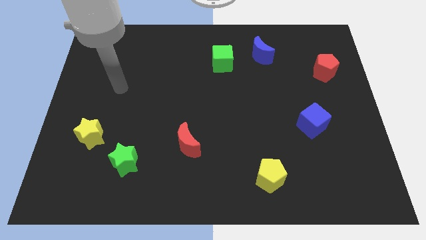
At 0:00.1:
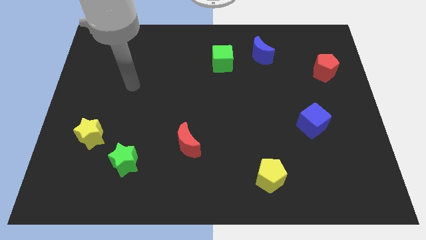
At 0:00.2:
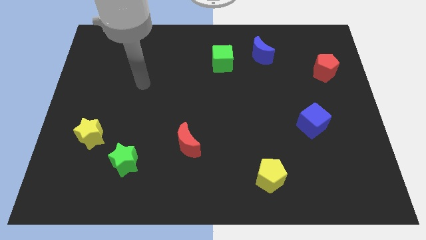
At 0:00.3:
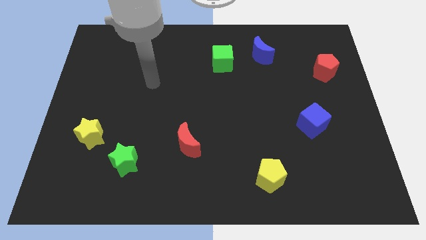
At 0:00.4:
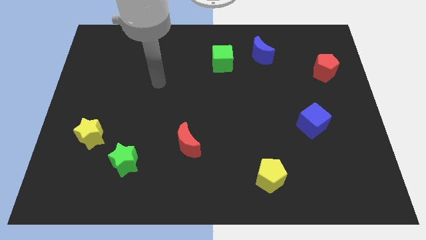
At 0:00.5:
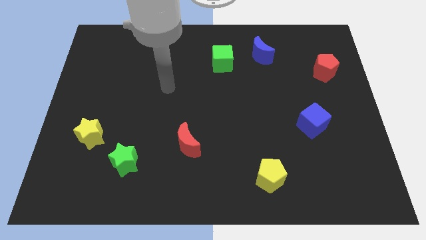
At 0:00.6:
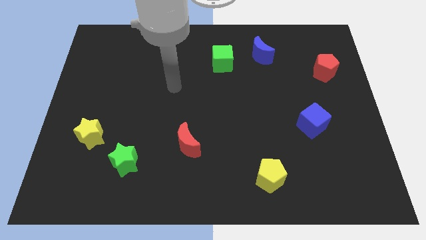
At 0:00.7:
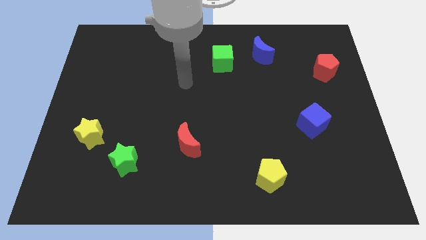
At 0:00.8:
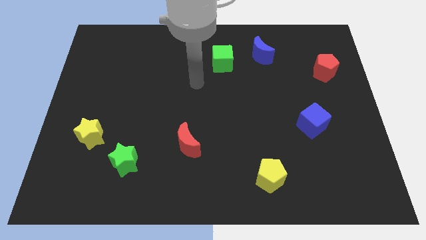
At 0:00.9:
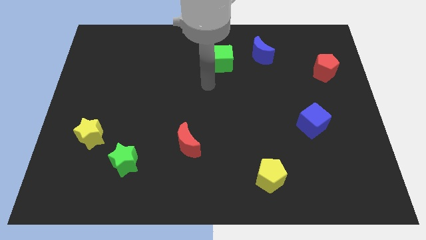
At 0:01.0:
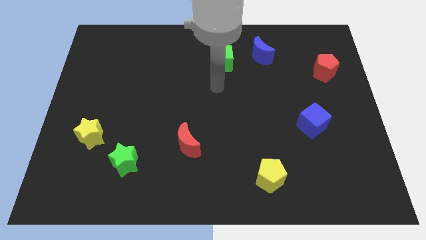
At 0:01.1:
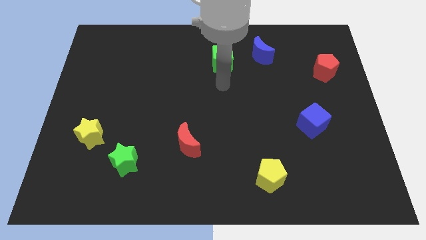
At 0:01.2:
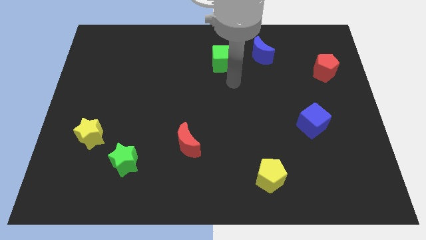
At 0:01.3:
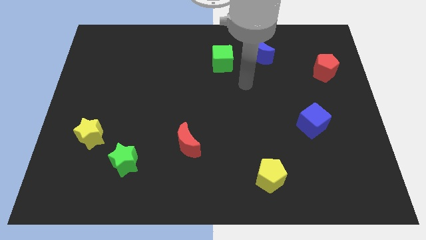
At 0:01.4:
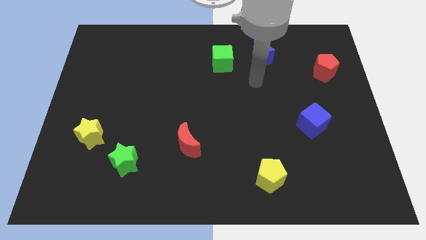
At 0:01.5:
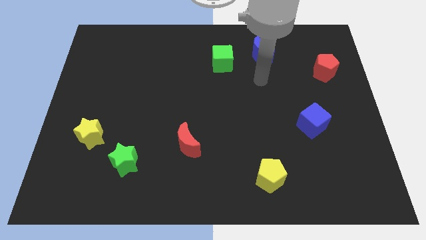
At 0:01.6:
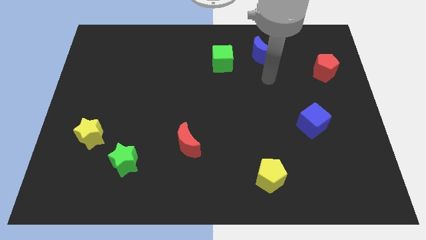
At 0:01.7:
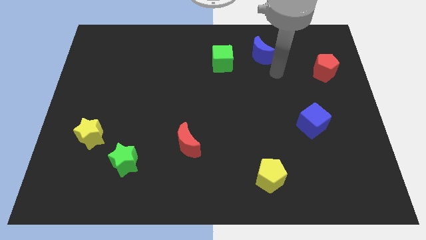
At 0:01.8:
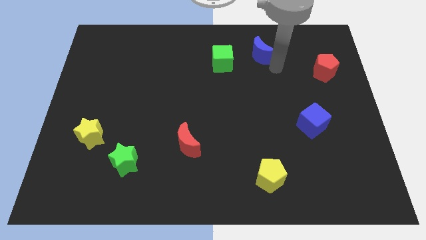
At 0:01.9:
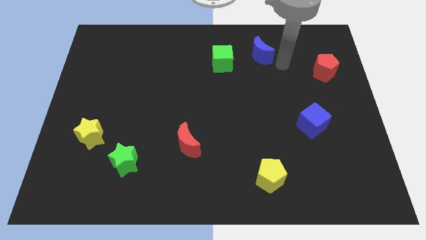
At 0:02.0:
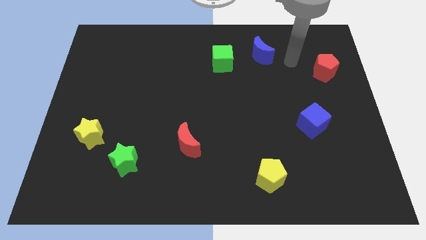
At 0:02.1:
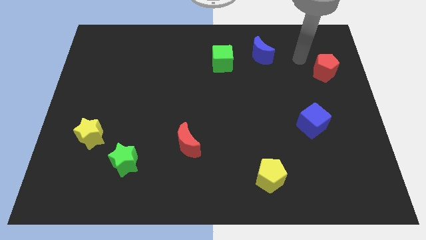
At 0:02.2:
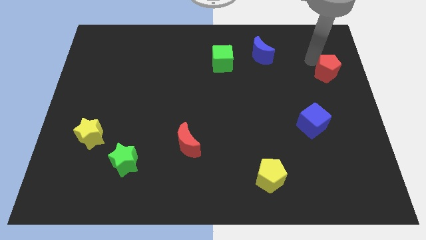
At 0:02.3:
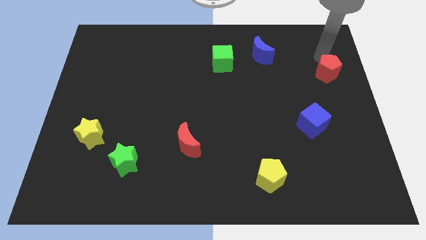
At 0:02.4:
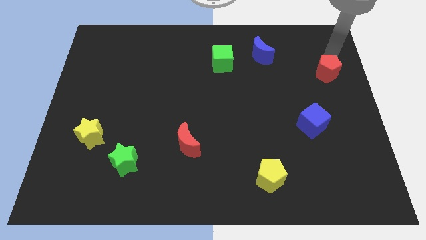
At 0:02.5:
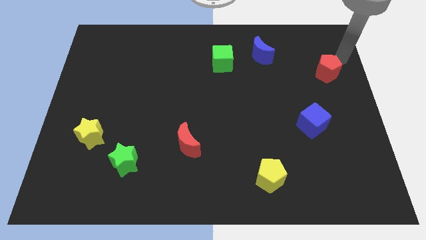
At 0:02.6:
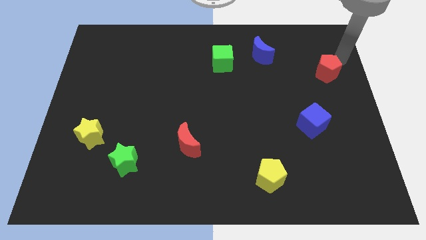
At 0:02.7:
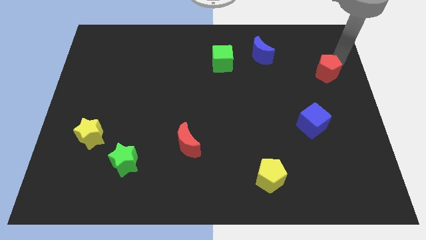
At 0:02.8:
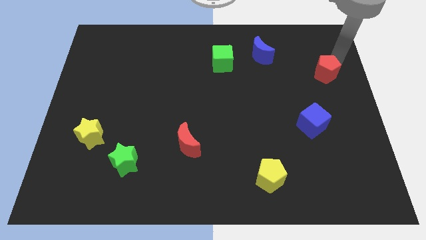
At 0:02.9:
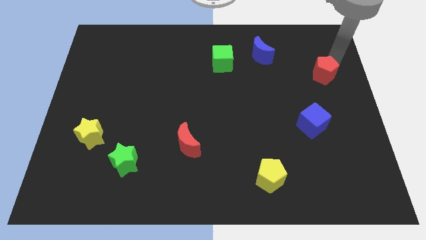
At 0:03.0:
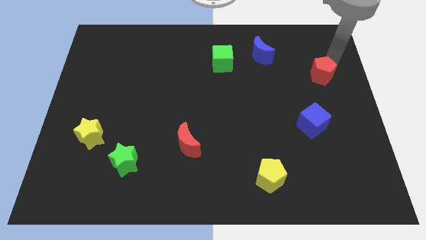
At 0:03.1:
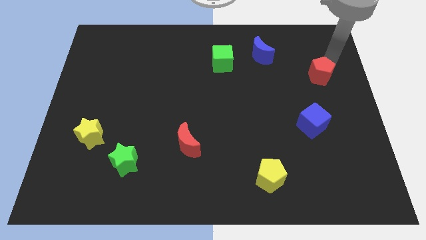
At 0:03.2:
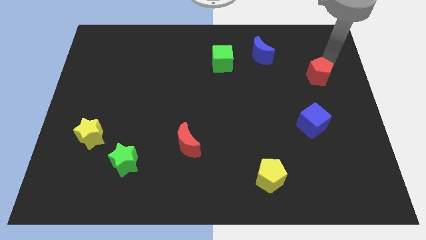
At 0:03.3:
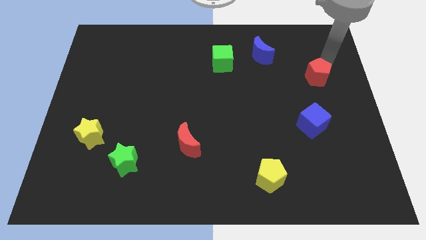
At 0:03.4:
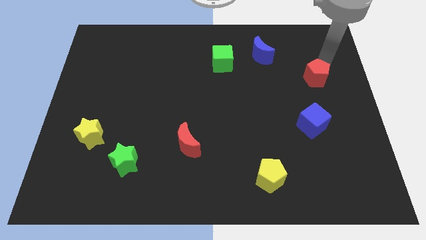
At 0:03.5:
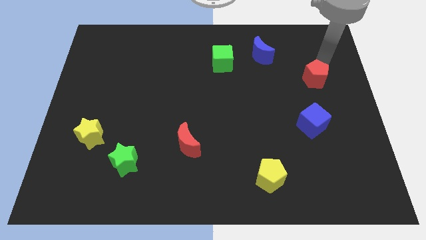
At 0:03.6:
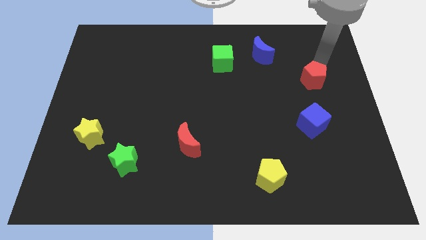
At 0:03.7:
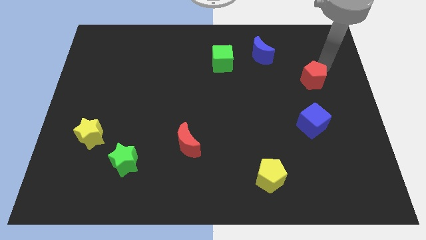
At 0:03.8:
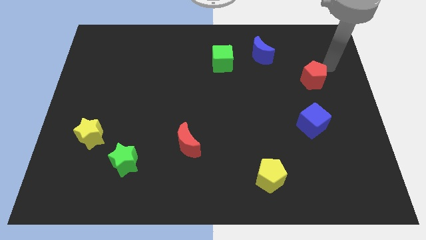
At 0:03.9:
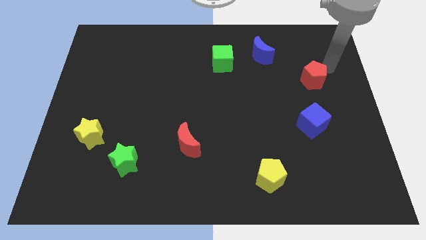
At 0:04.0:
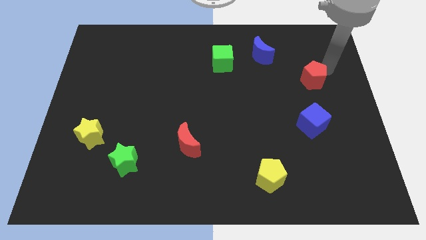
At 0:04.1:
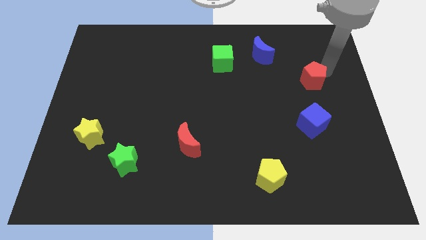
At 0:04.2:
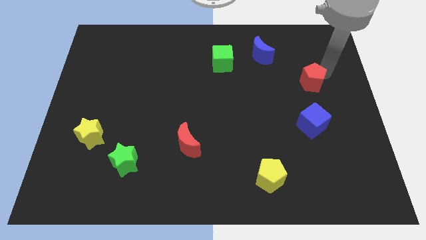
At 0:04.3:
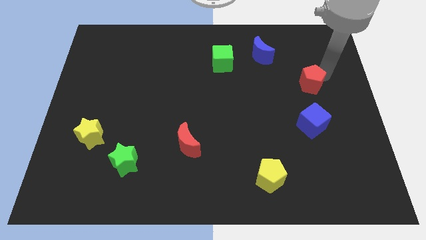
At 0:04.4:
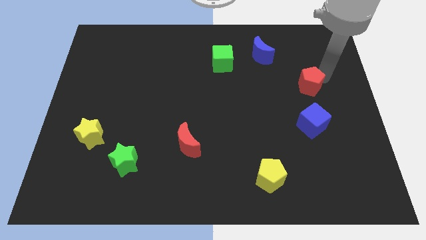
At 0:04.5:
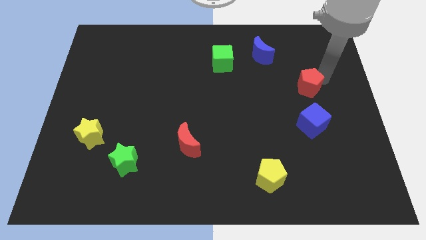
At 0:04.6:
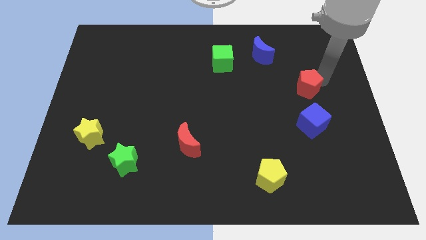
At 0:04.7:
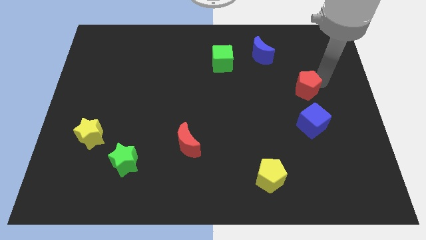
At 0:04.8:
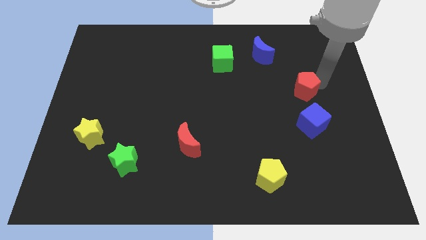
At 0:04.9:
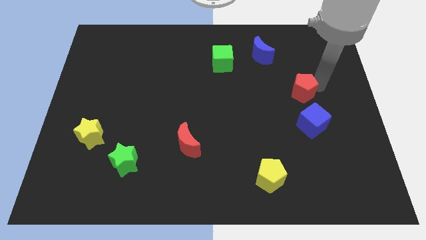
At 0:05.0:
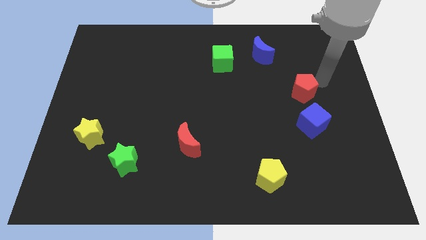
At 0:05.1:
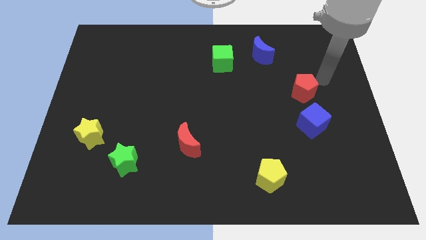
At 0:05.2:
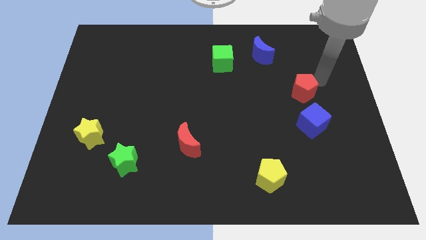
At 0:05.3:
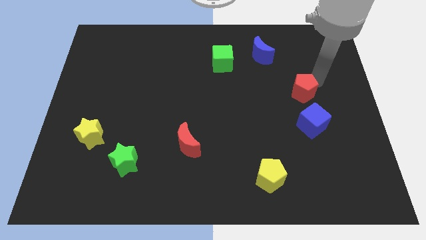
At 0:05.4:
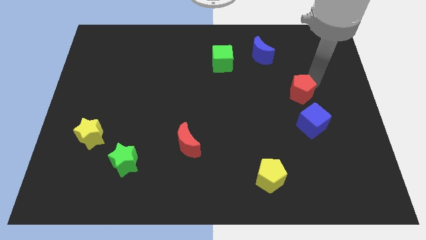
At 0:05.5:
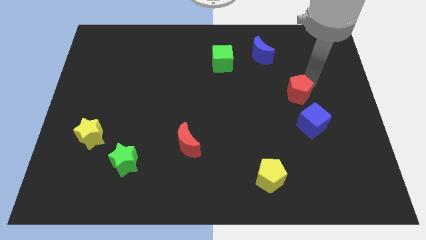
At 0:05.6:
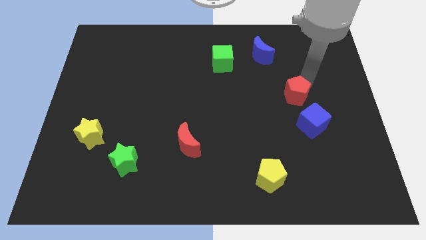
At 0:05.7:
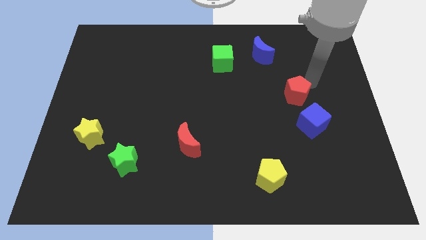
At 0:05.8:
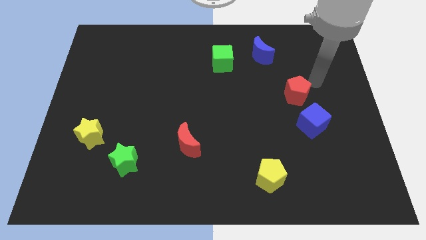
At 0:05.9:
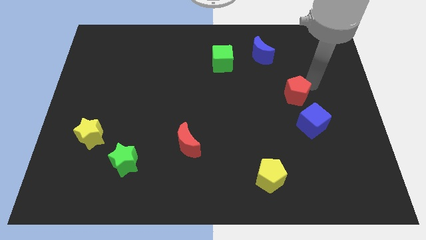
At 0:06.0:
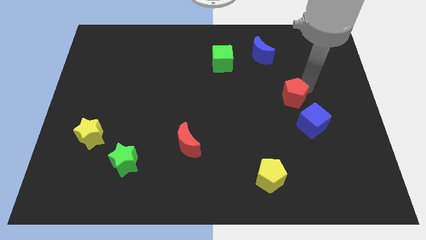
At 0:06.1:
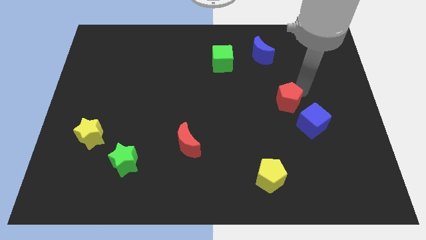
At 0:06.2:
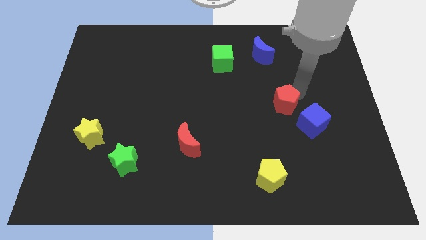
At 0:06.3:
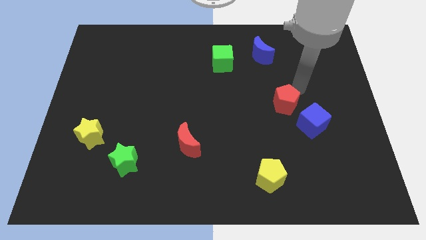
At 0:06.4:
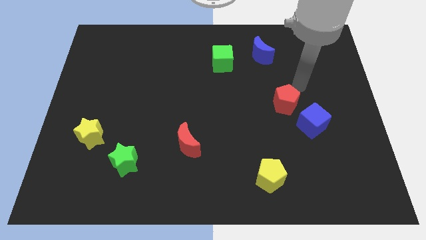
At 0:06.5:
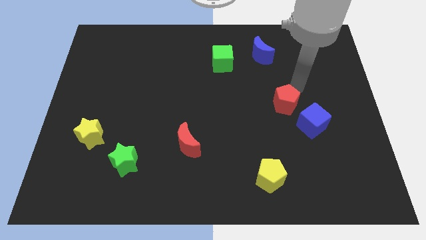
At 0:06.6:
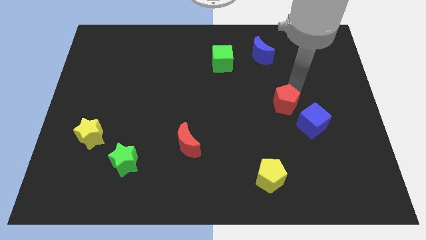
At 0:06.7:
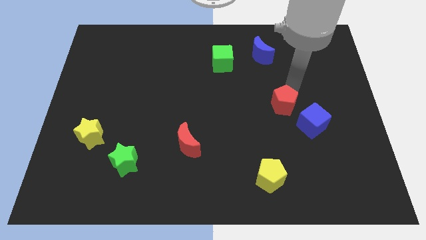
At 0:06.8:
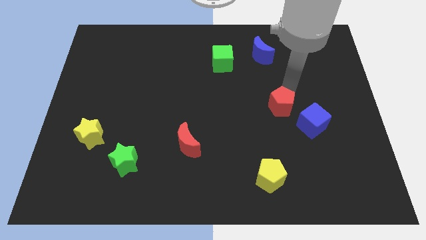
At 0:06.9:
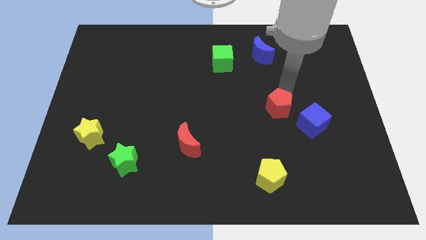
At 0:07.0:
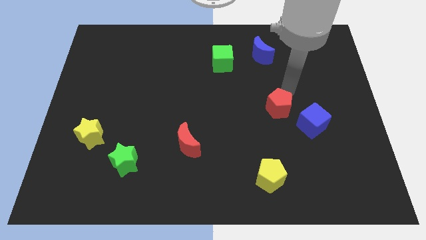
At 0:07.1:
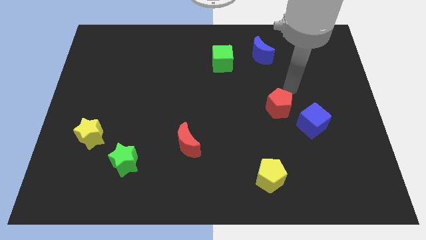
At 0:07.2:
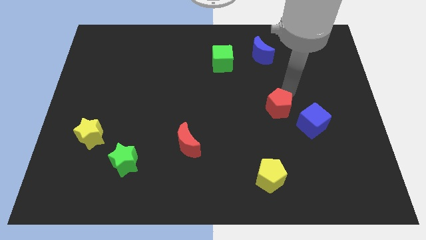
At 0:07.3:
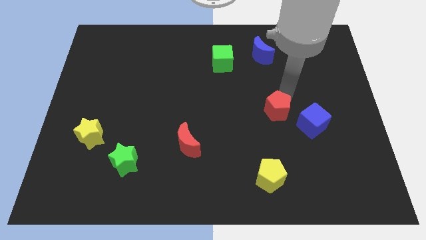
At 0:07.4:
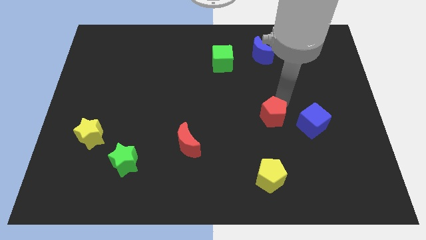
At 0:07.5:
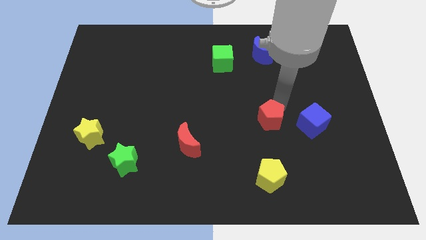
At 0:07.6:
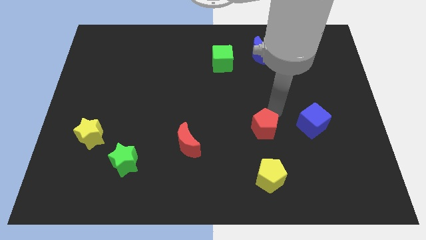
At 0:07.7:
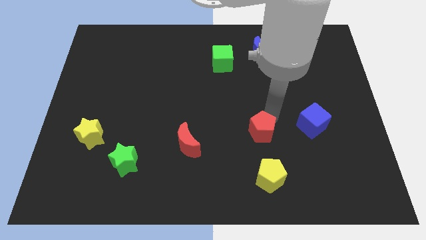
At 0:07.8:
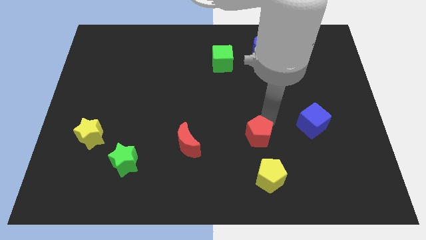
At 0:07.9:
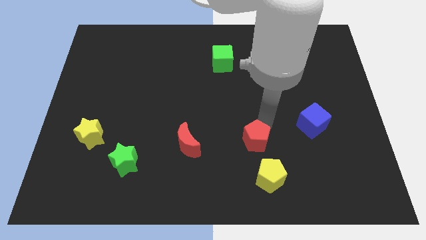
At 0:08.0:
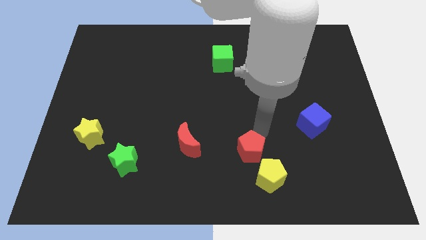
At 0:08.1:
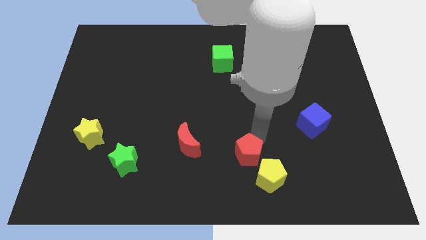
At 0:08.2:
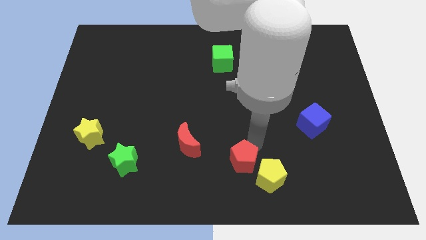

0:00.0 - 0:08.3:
slide the red pentagon to the bottom side
